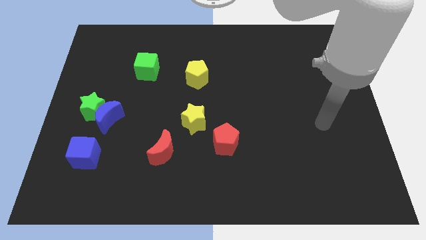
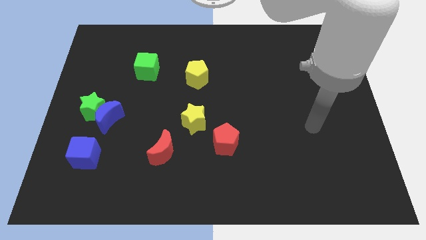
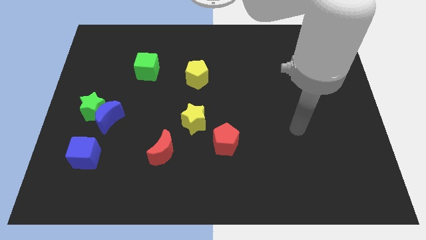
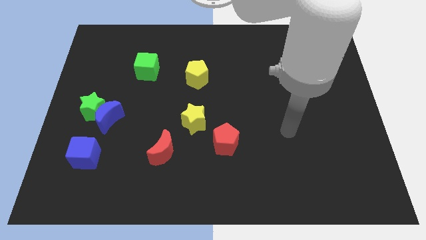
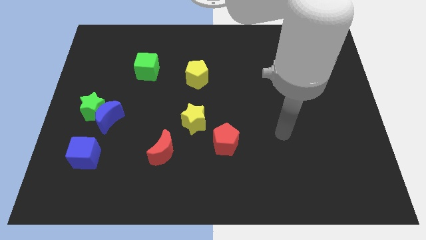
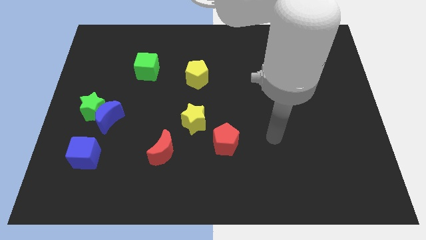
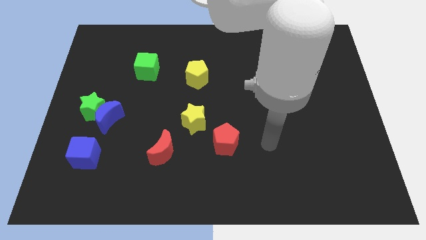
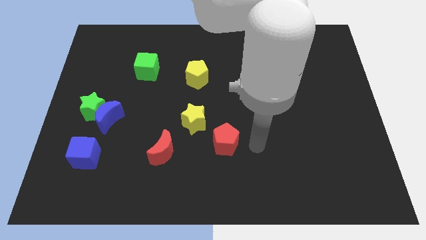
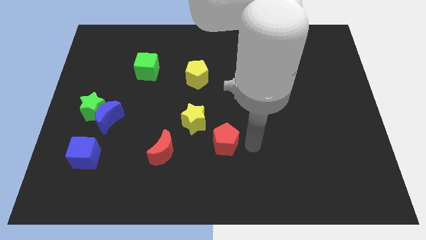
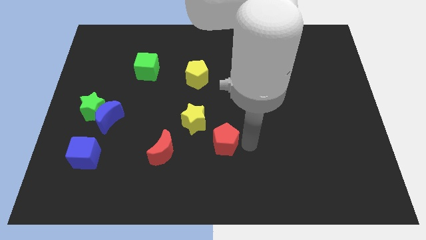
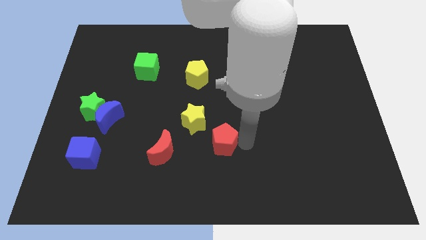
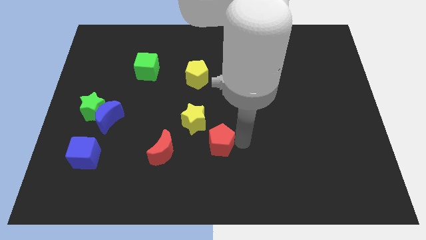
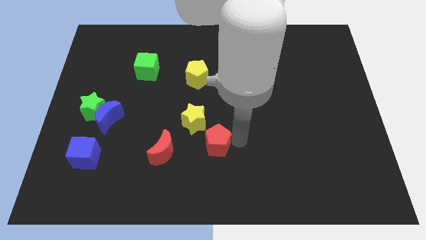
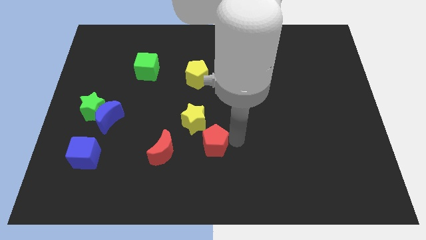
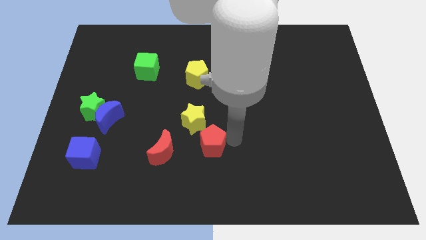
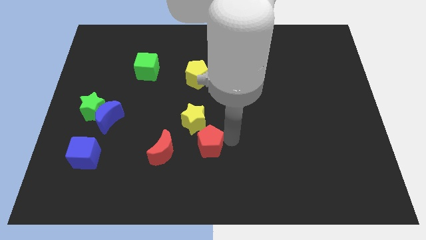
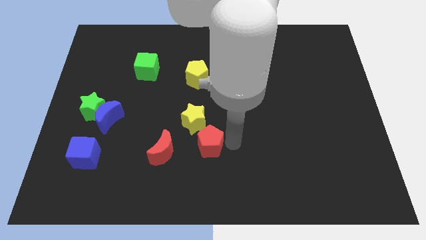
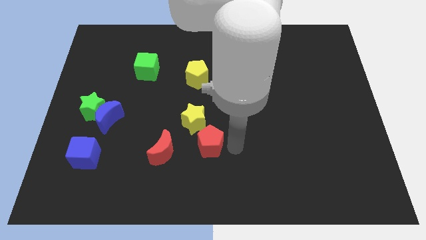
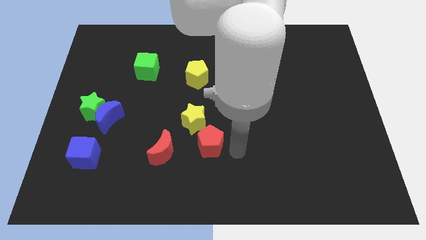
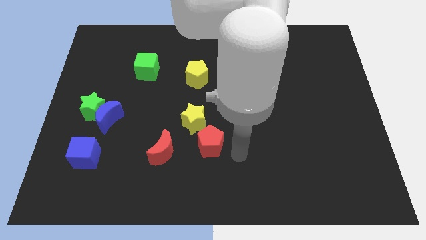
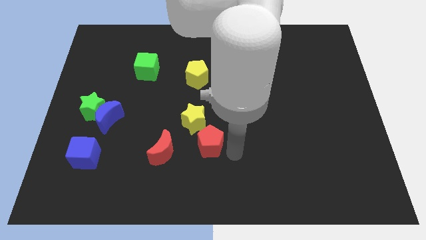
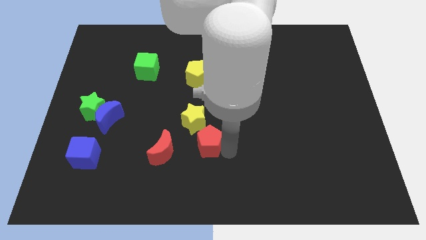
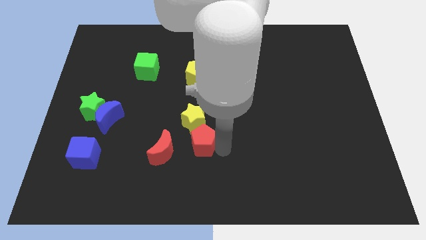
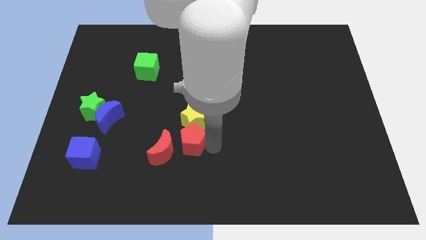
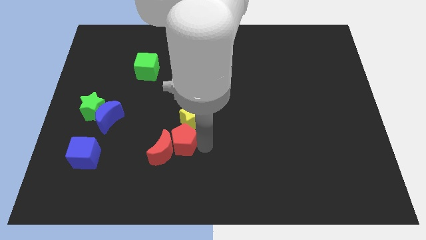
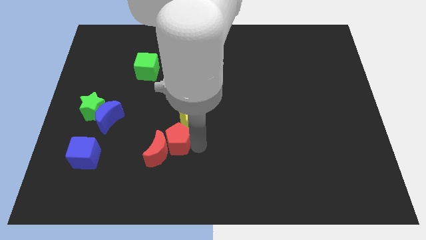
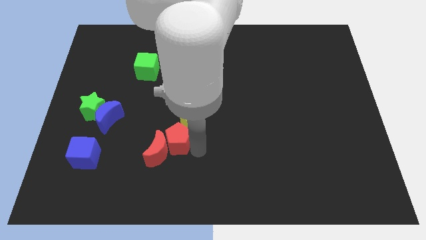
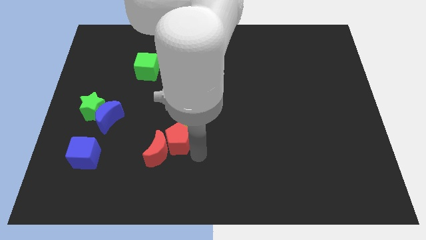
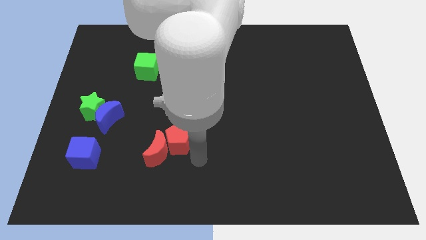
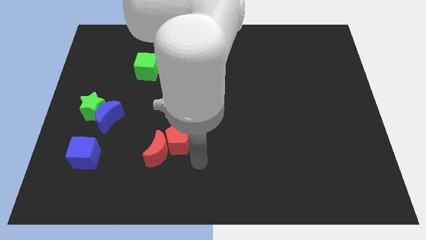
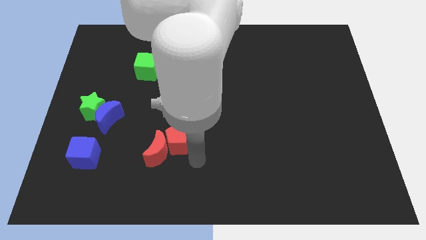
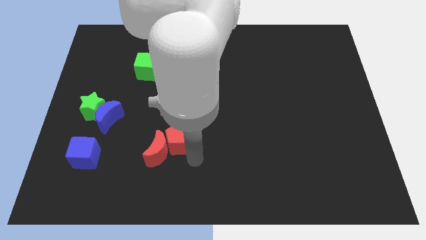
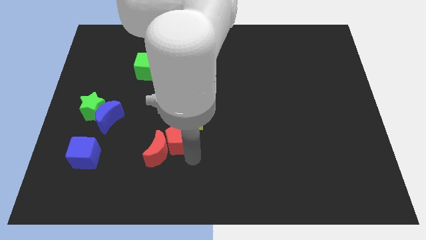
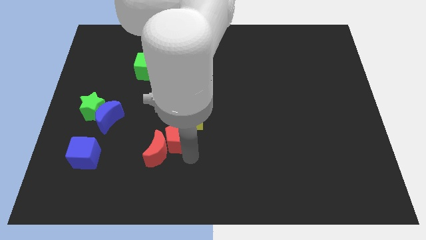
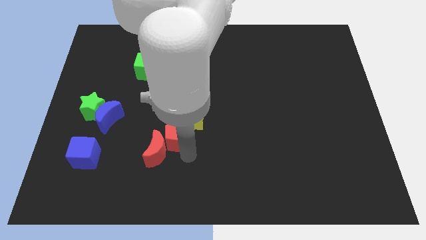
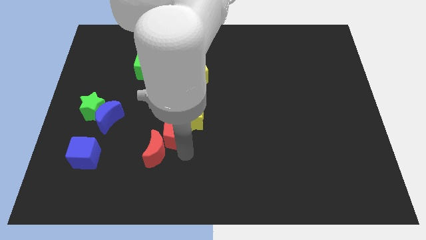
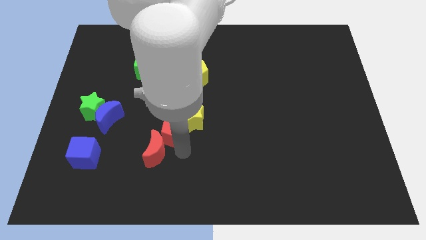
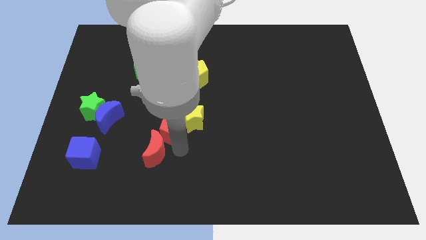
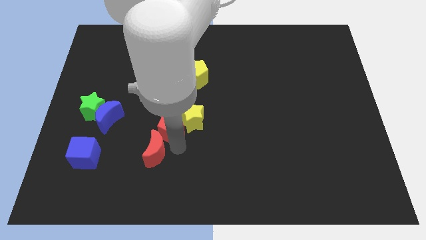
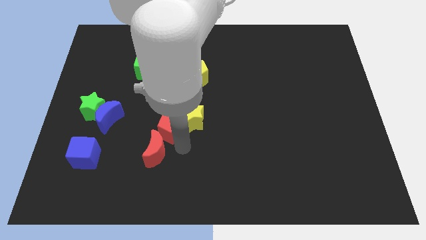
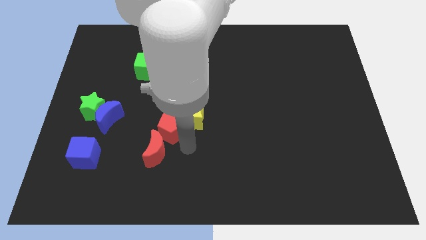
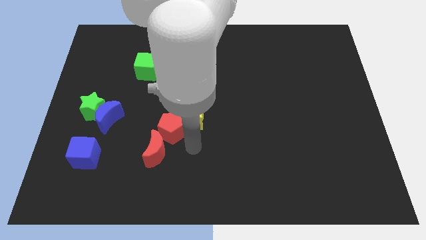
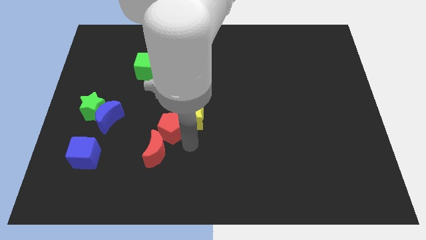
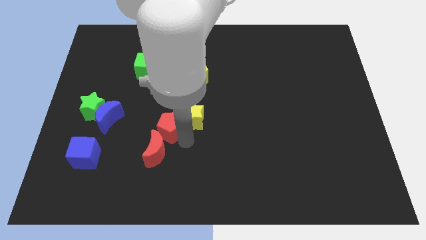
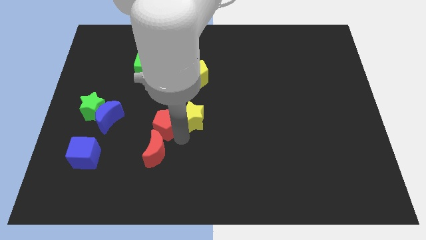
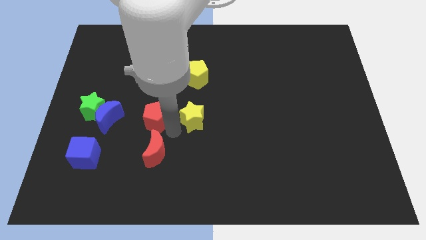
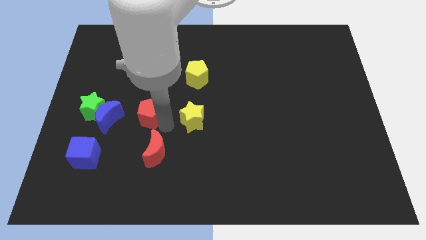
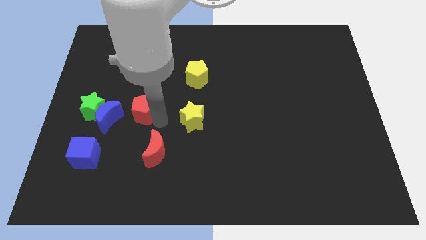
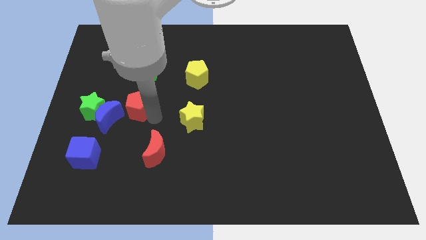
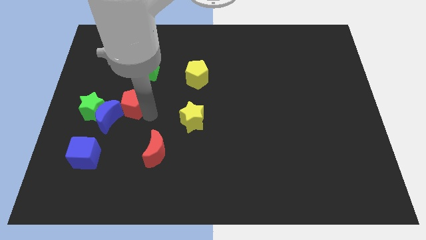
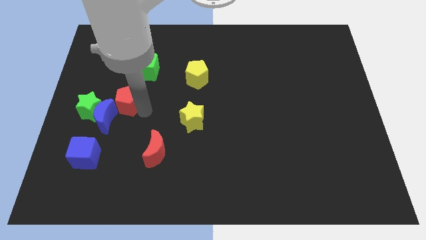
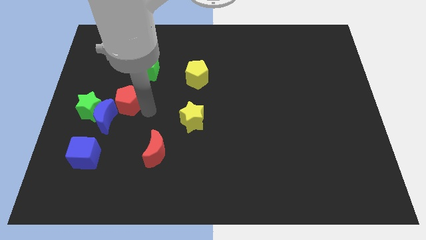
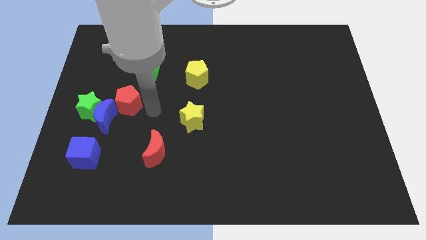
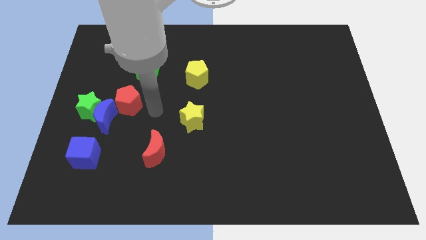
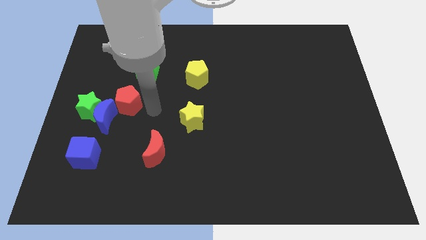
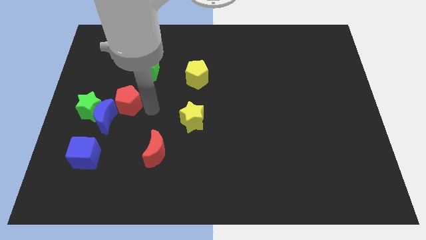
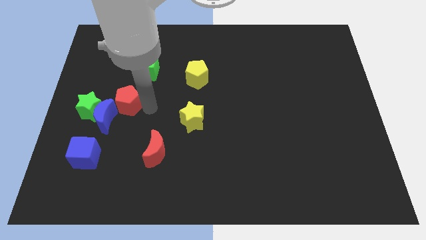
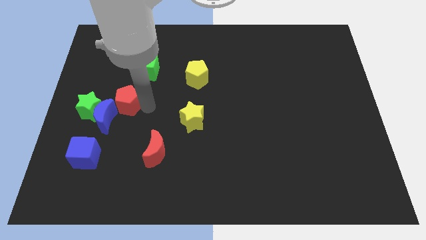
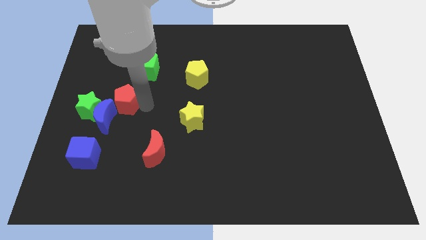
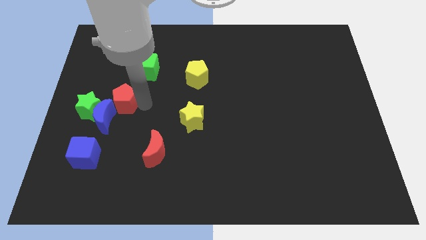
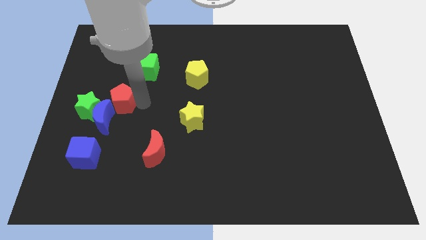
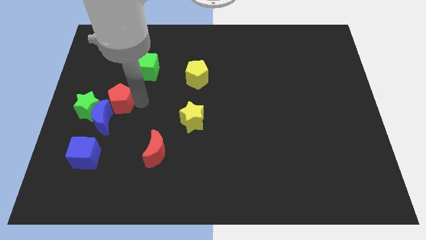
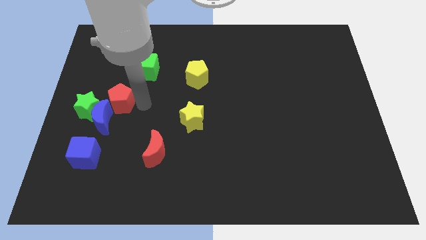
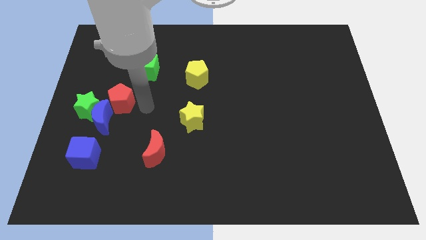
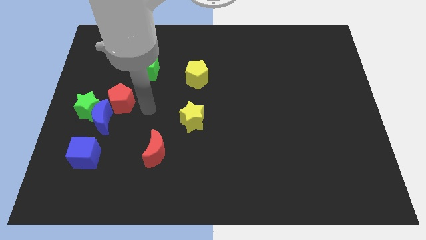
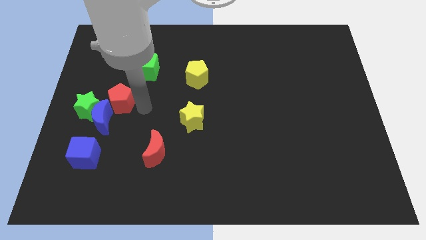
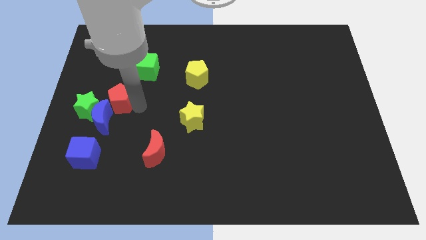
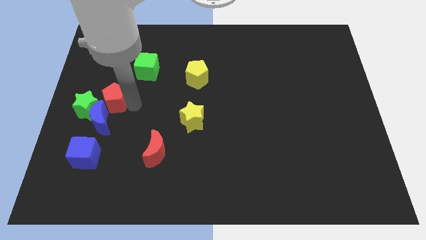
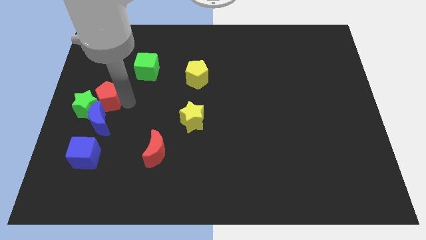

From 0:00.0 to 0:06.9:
slide the red pentagon next to the green star
